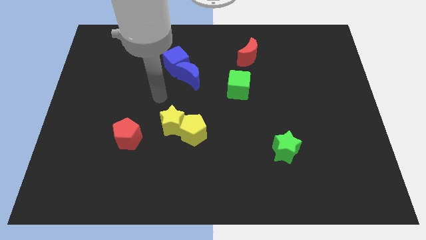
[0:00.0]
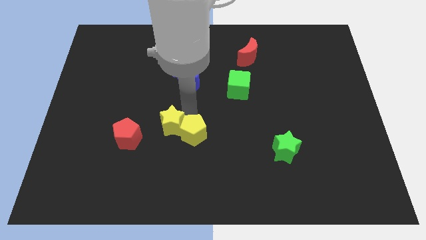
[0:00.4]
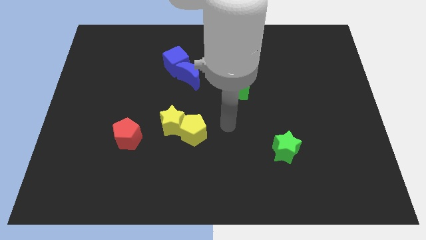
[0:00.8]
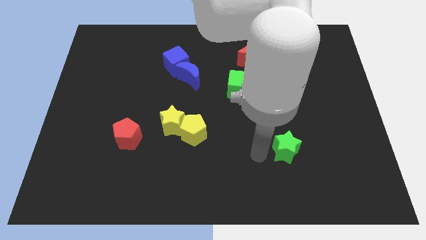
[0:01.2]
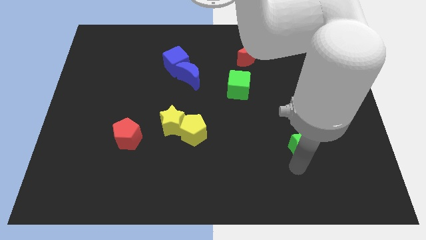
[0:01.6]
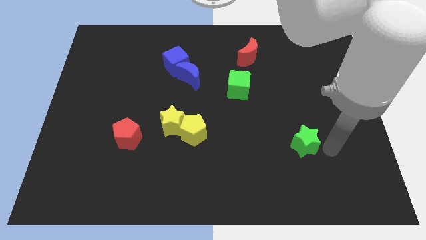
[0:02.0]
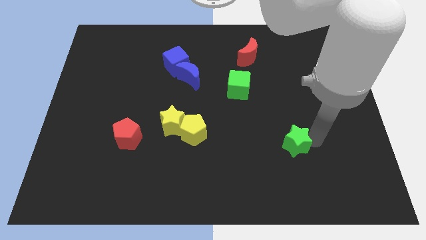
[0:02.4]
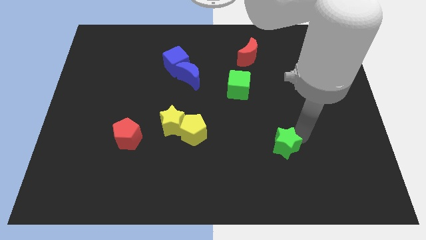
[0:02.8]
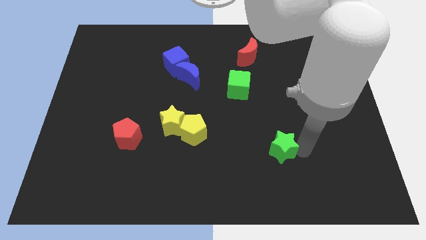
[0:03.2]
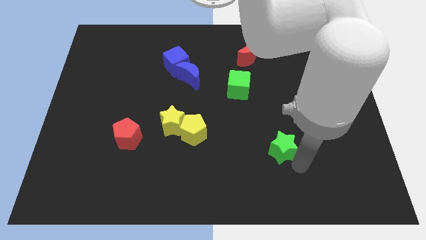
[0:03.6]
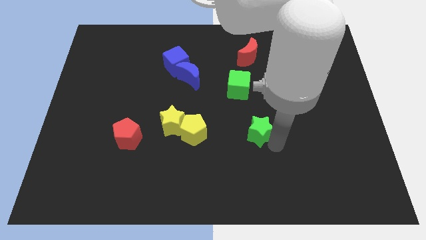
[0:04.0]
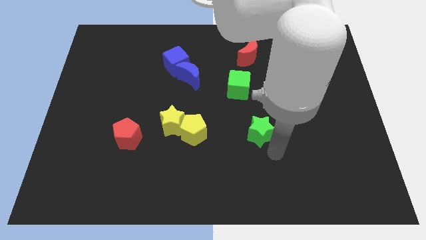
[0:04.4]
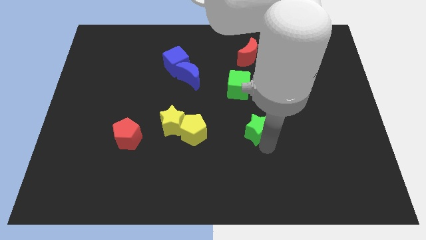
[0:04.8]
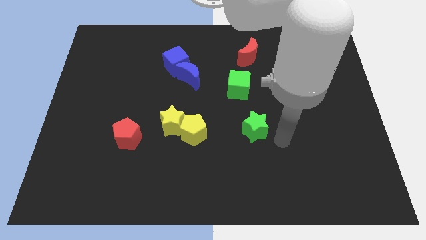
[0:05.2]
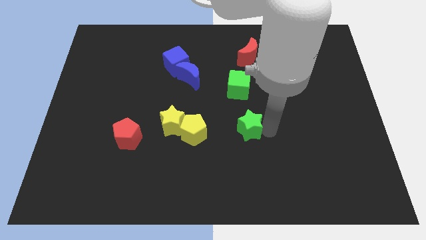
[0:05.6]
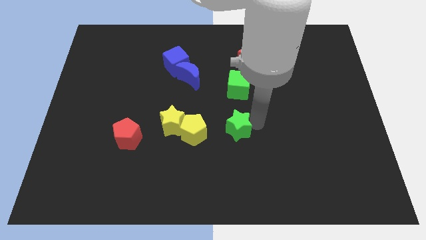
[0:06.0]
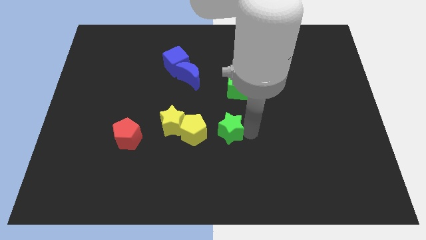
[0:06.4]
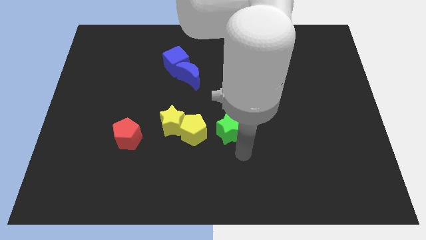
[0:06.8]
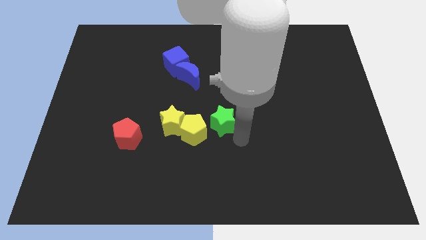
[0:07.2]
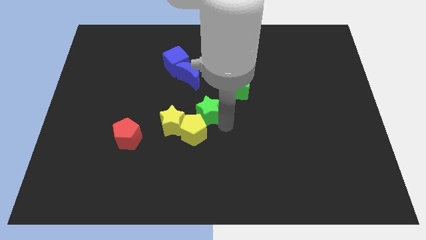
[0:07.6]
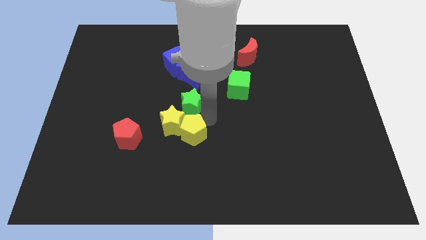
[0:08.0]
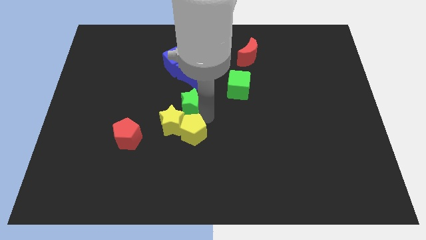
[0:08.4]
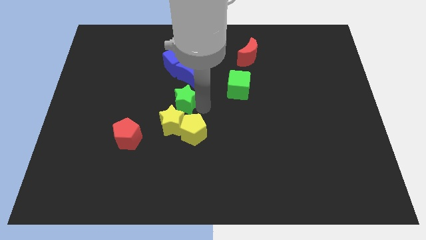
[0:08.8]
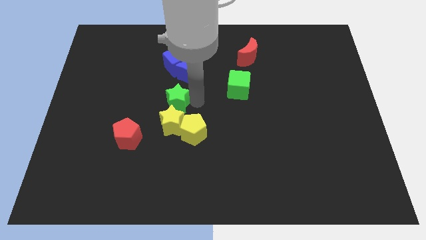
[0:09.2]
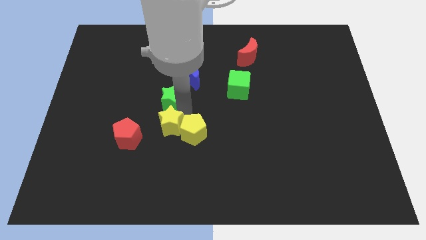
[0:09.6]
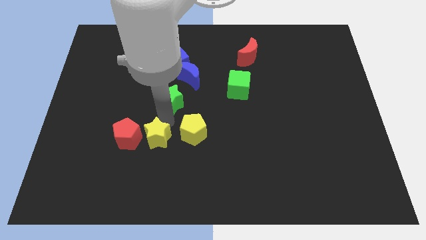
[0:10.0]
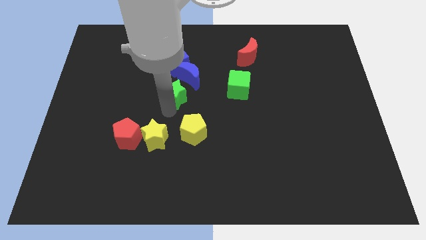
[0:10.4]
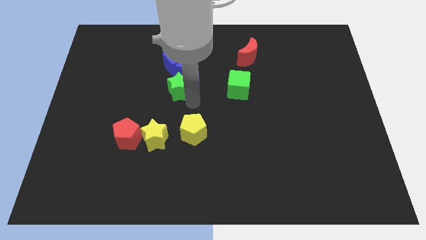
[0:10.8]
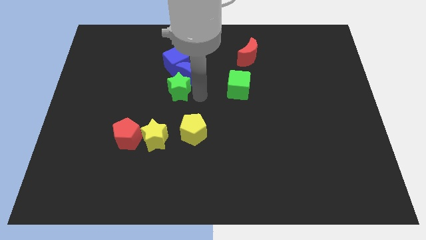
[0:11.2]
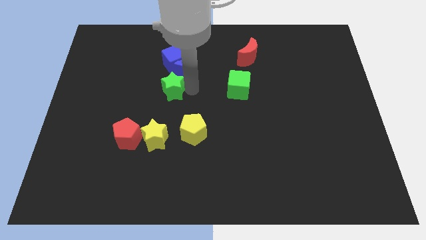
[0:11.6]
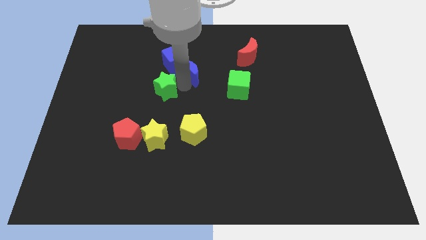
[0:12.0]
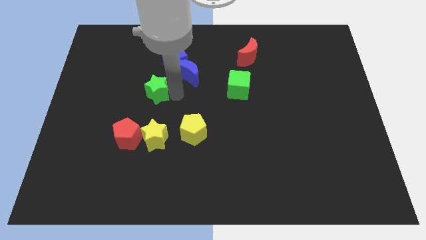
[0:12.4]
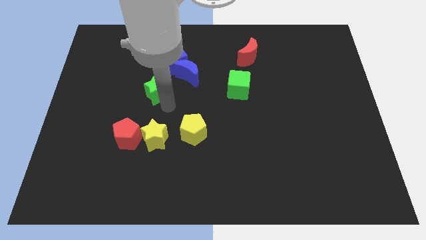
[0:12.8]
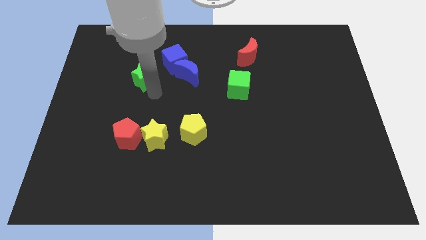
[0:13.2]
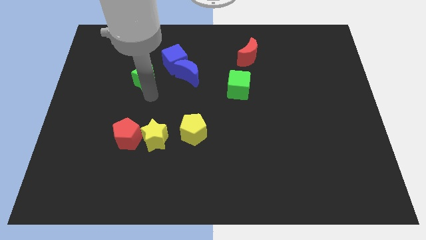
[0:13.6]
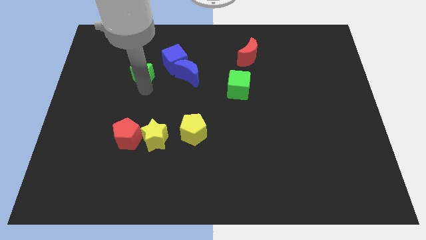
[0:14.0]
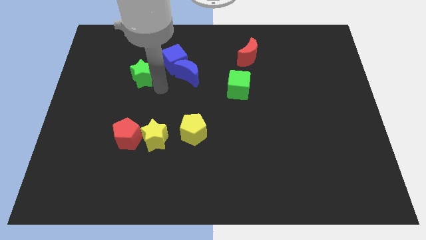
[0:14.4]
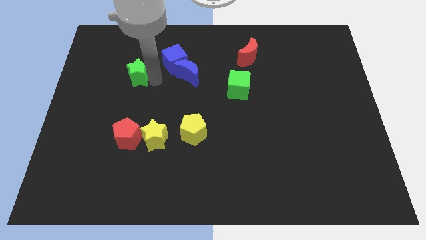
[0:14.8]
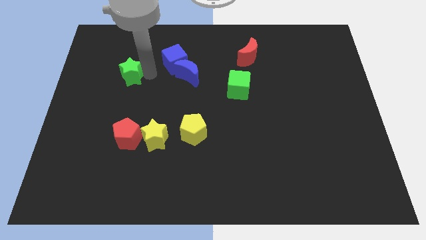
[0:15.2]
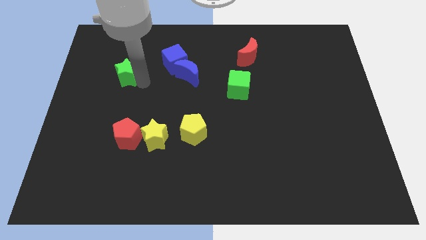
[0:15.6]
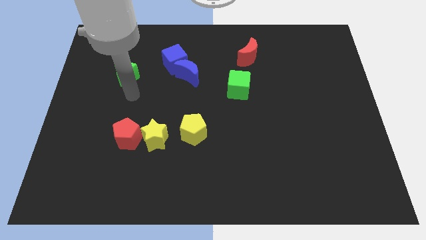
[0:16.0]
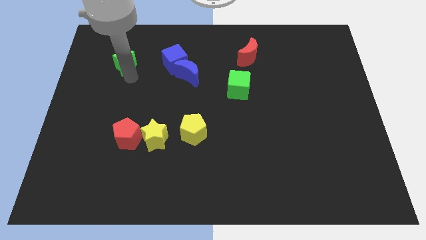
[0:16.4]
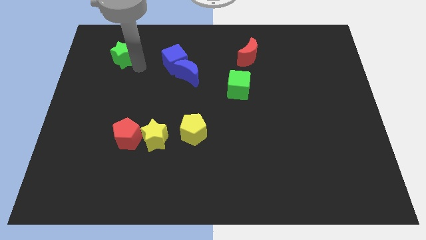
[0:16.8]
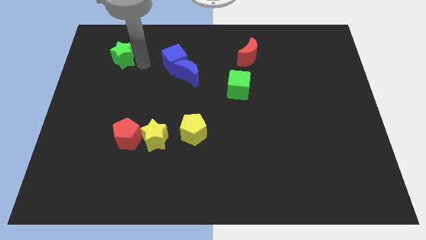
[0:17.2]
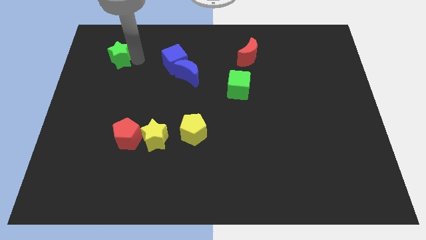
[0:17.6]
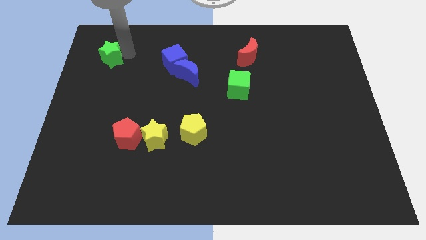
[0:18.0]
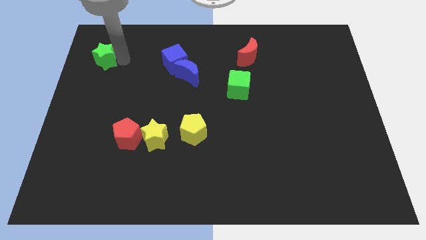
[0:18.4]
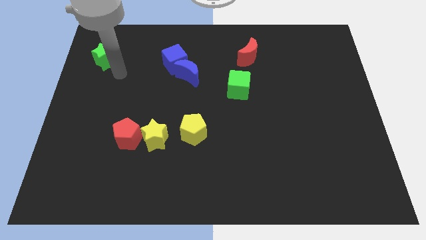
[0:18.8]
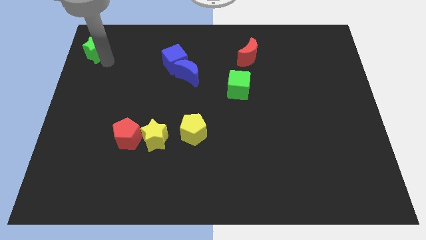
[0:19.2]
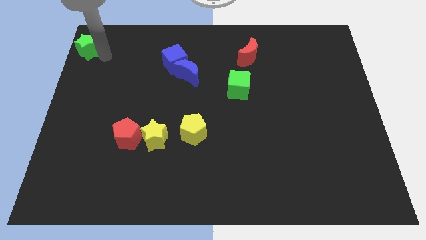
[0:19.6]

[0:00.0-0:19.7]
move the green star to the top left

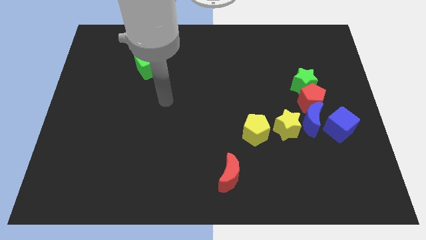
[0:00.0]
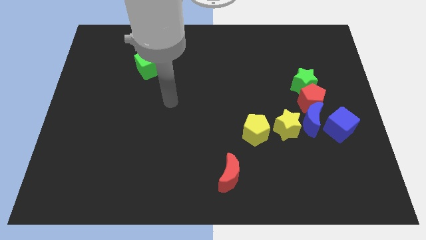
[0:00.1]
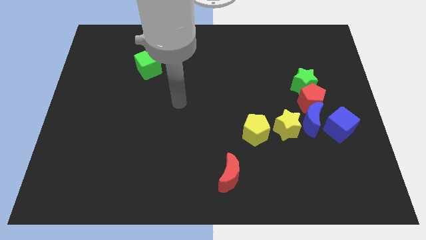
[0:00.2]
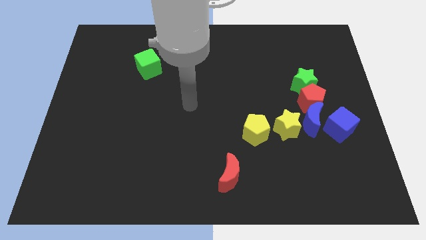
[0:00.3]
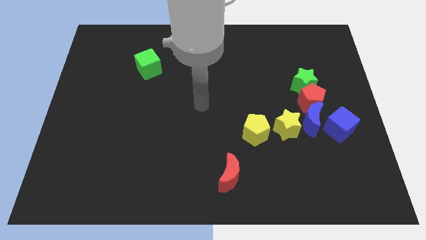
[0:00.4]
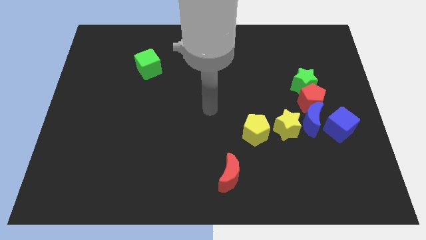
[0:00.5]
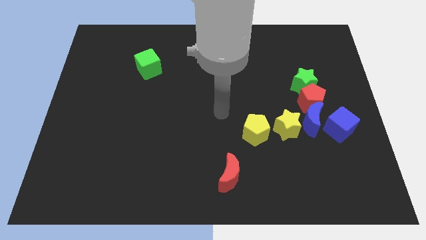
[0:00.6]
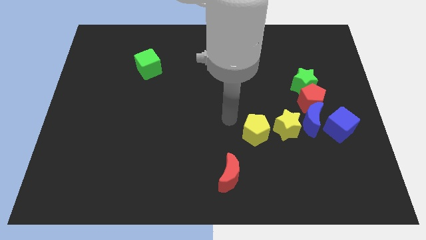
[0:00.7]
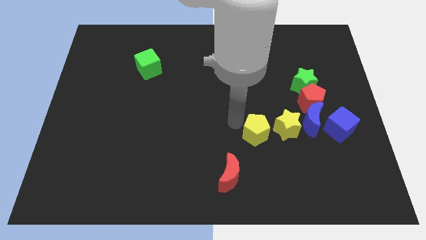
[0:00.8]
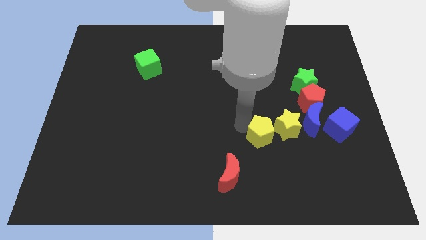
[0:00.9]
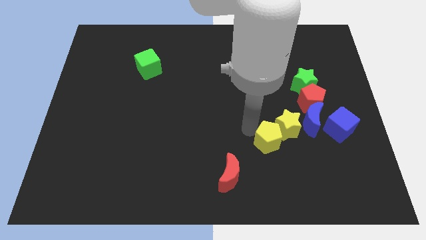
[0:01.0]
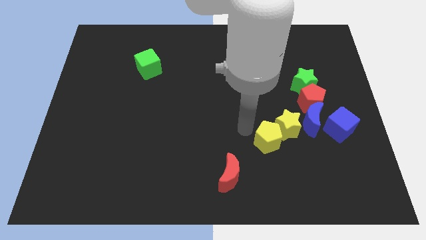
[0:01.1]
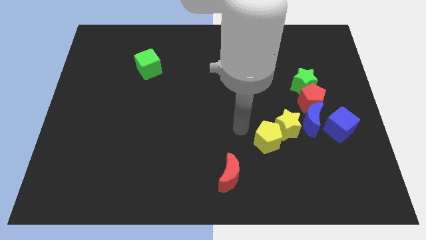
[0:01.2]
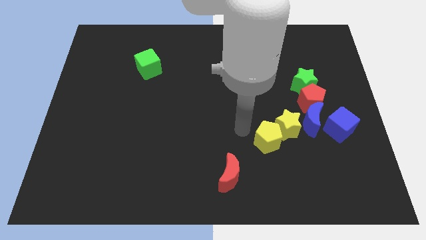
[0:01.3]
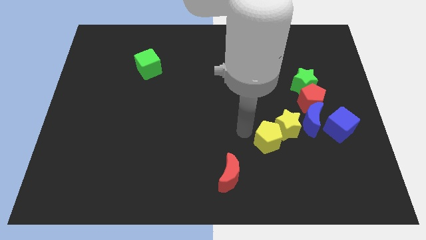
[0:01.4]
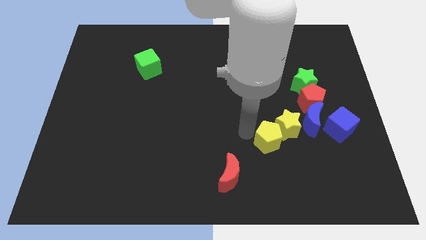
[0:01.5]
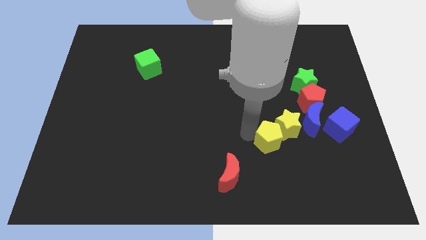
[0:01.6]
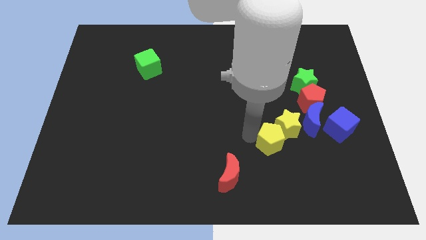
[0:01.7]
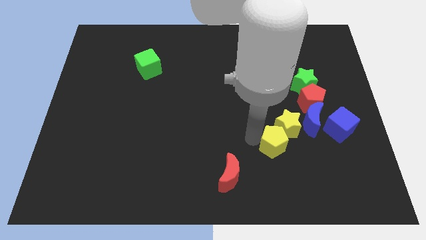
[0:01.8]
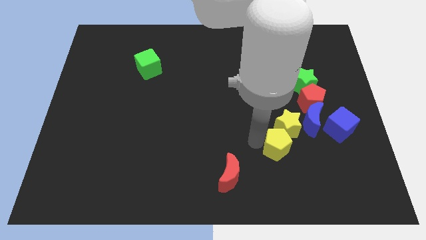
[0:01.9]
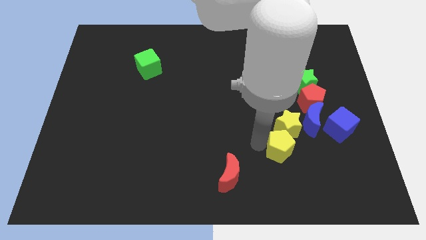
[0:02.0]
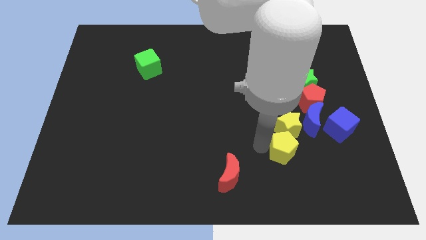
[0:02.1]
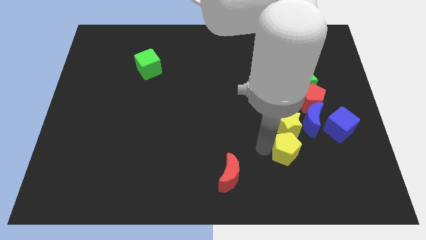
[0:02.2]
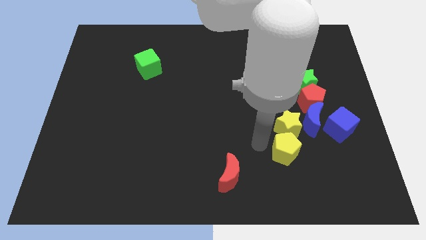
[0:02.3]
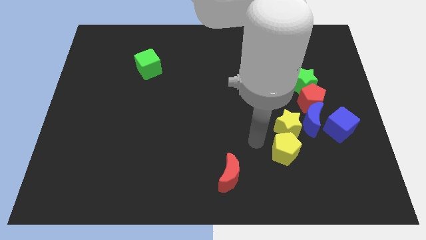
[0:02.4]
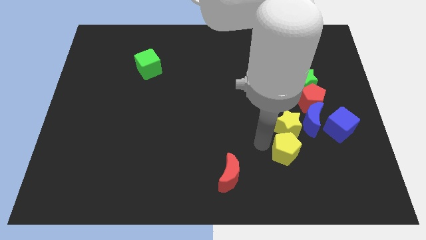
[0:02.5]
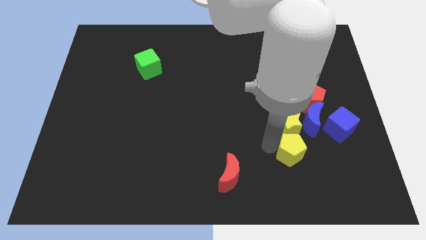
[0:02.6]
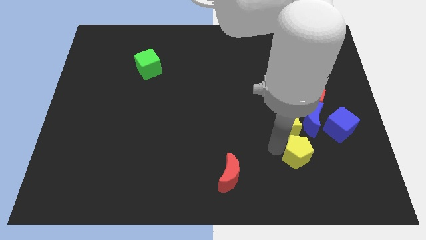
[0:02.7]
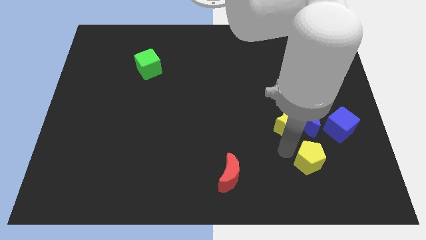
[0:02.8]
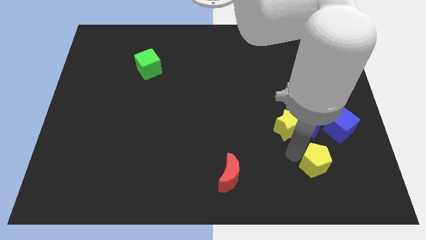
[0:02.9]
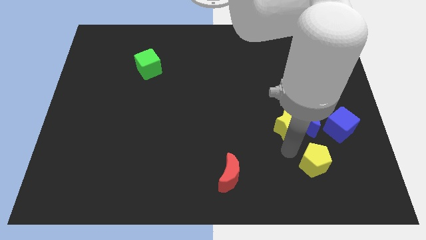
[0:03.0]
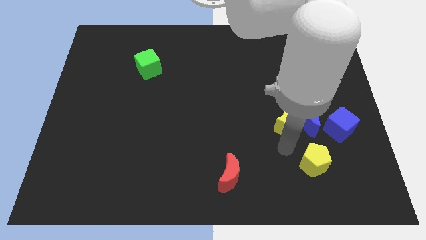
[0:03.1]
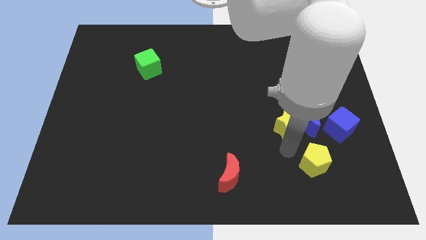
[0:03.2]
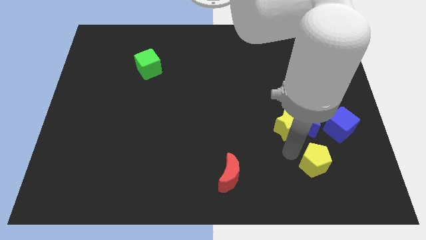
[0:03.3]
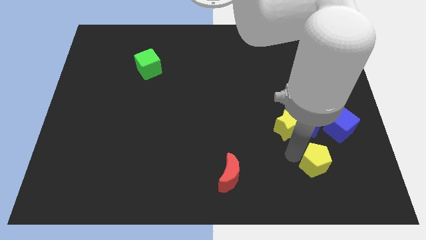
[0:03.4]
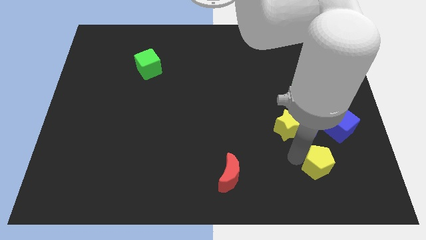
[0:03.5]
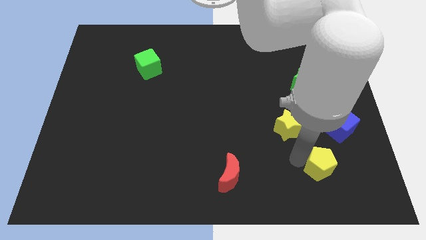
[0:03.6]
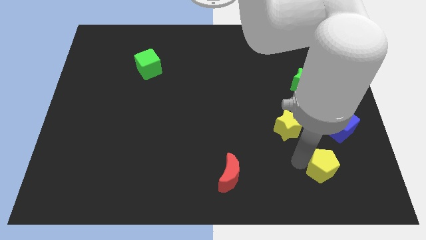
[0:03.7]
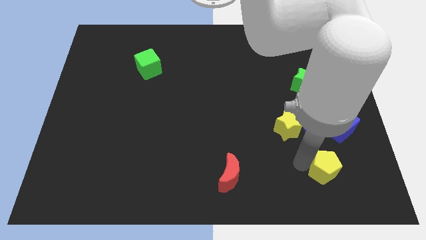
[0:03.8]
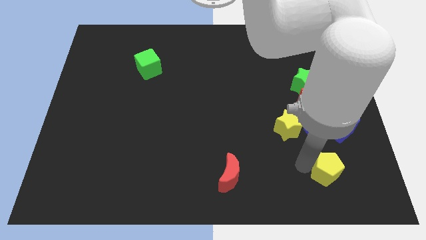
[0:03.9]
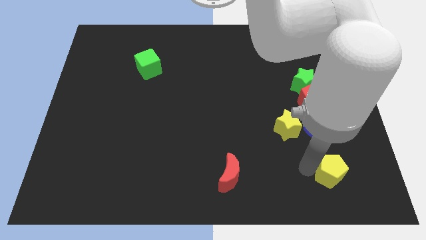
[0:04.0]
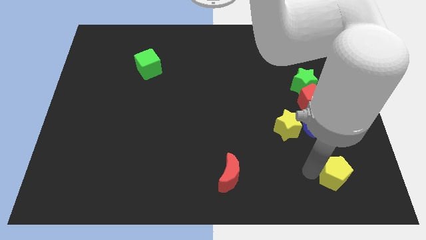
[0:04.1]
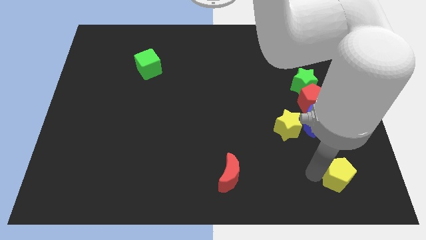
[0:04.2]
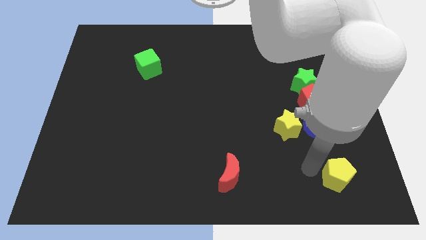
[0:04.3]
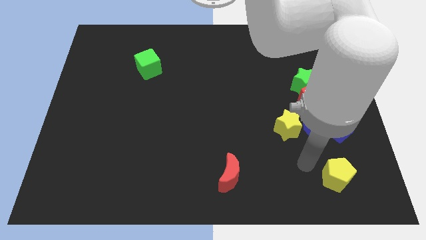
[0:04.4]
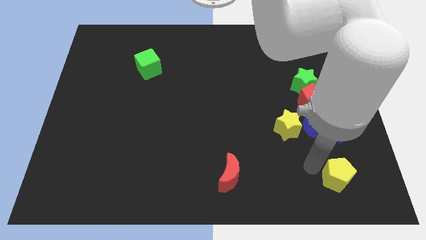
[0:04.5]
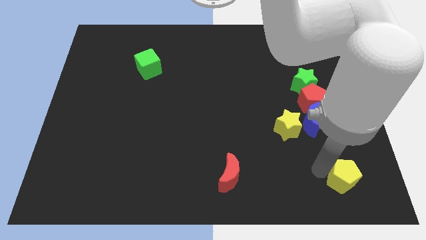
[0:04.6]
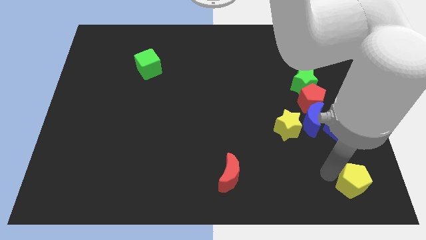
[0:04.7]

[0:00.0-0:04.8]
push the yellow pentagon to the bottom right
